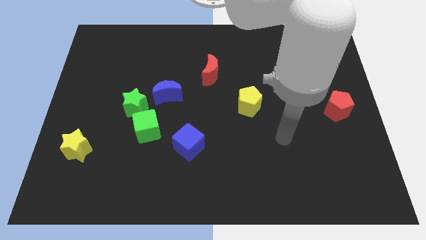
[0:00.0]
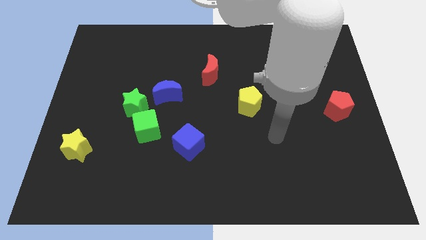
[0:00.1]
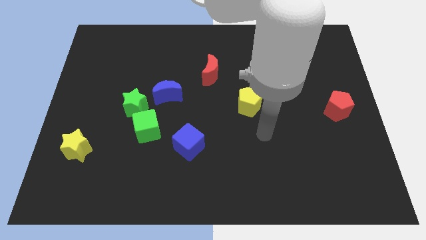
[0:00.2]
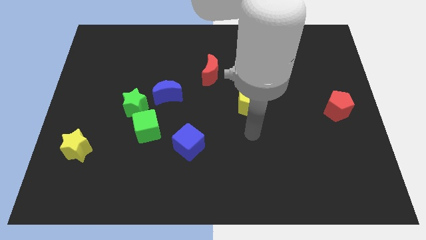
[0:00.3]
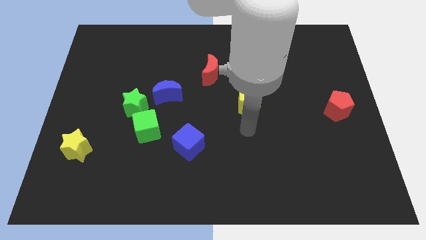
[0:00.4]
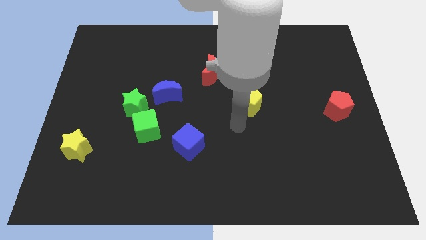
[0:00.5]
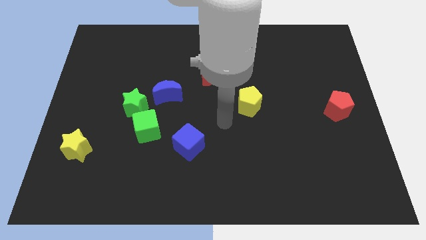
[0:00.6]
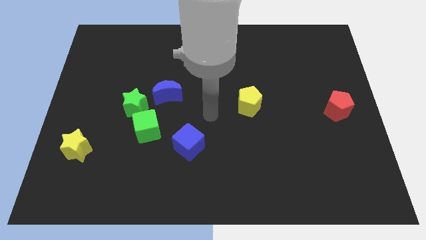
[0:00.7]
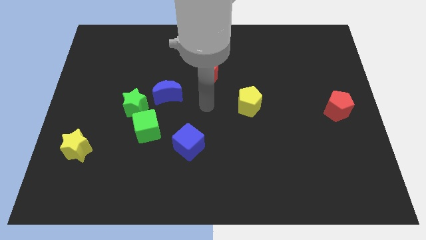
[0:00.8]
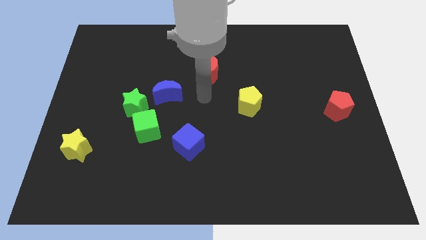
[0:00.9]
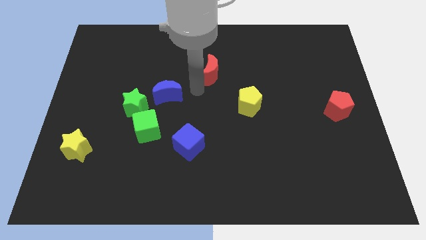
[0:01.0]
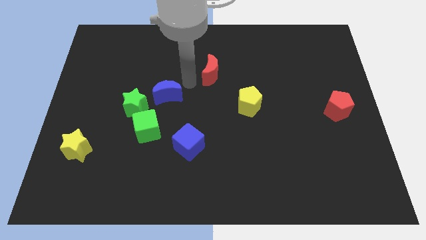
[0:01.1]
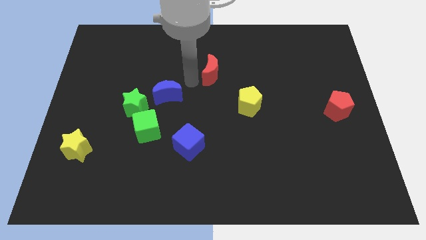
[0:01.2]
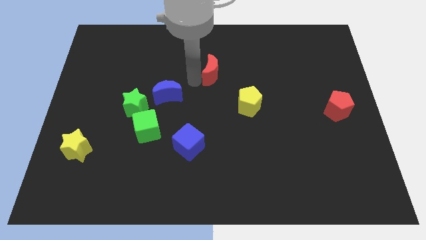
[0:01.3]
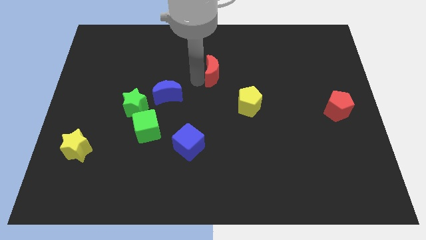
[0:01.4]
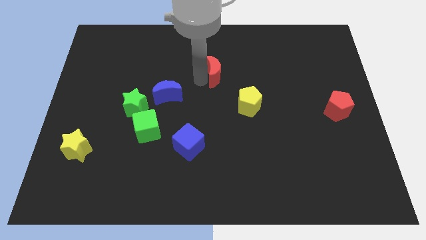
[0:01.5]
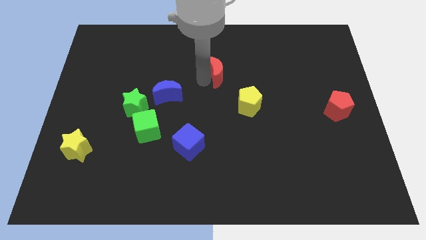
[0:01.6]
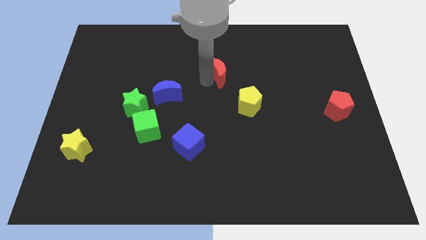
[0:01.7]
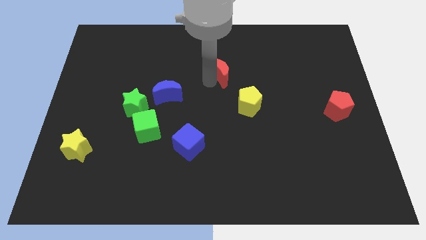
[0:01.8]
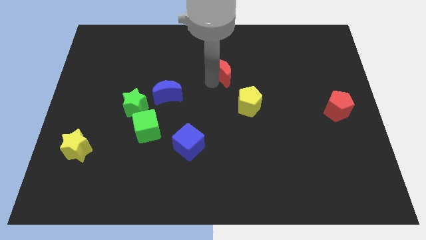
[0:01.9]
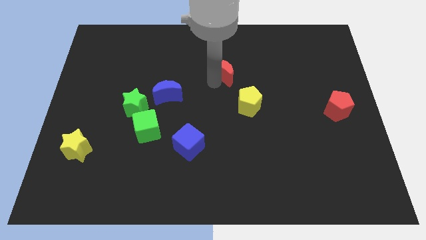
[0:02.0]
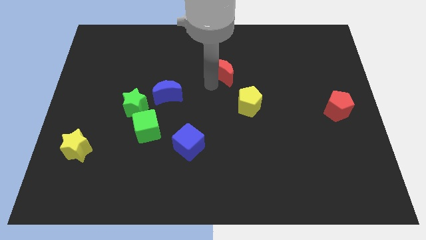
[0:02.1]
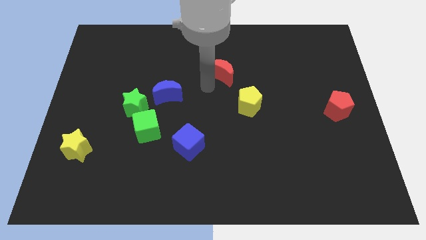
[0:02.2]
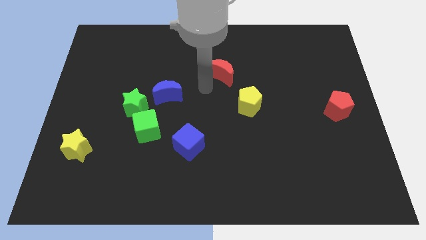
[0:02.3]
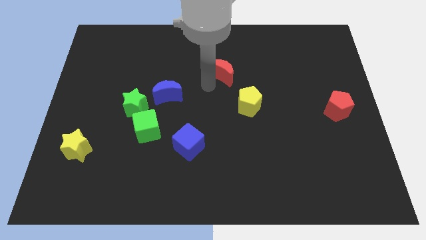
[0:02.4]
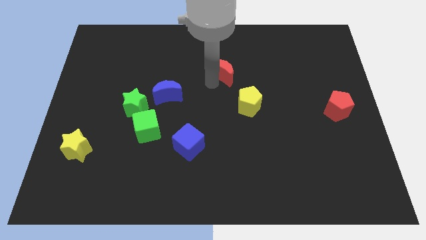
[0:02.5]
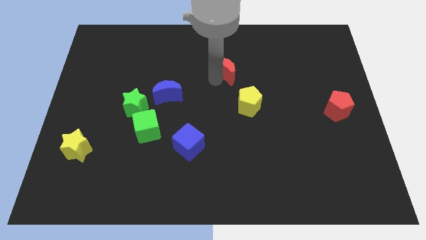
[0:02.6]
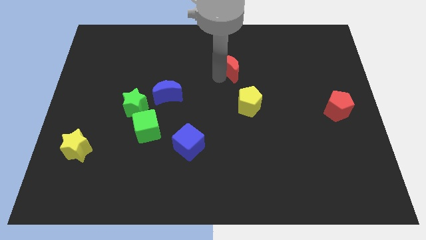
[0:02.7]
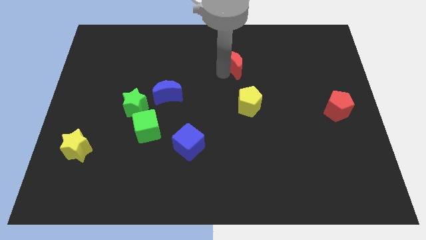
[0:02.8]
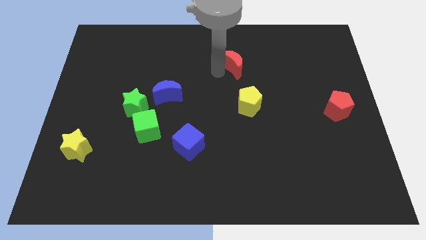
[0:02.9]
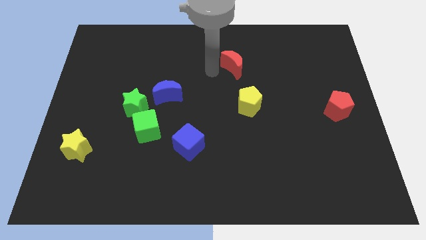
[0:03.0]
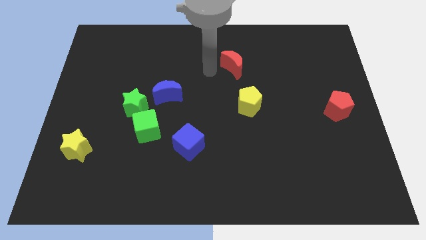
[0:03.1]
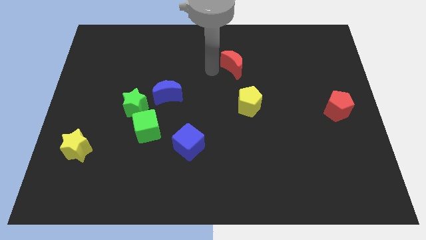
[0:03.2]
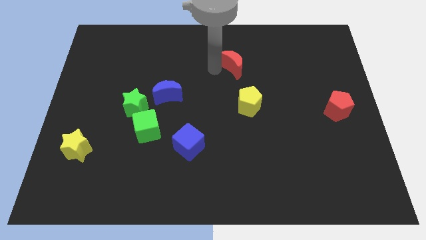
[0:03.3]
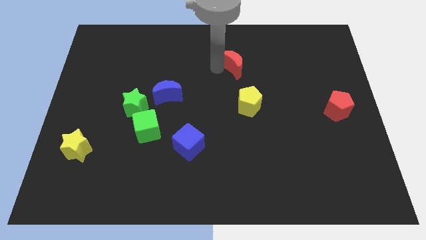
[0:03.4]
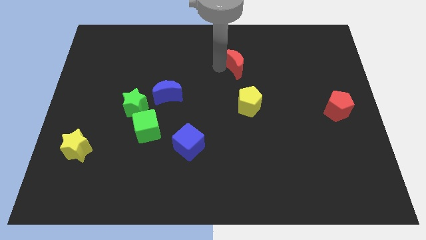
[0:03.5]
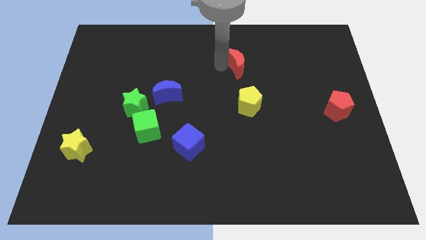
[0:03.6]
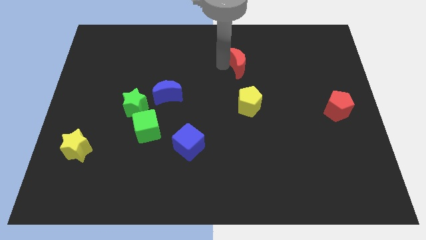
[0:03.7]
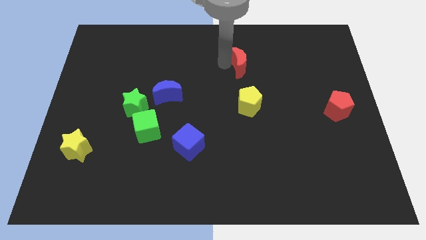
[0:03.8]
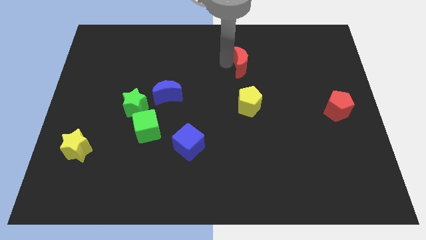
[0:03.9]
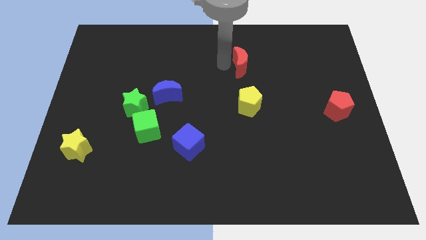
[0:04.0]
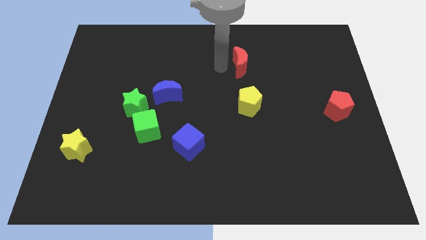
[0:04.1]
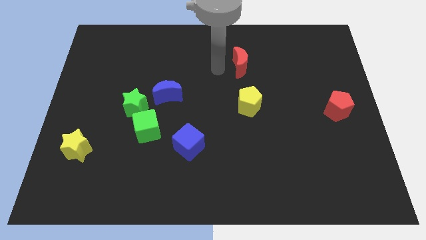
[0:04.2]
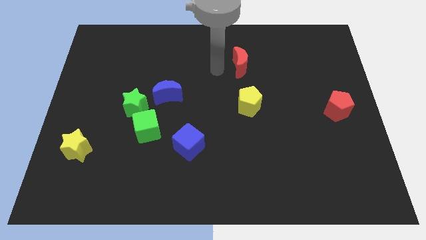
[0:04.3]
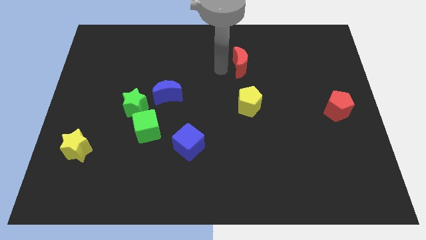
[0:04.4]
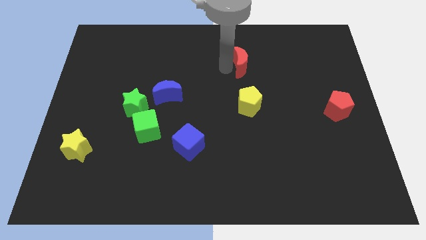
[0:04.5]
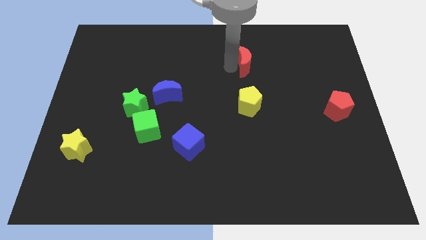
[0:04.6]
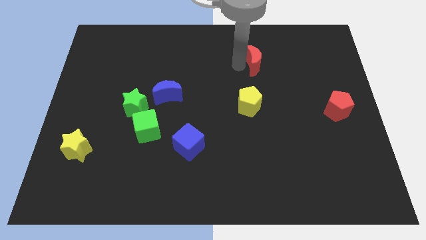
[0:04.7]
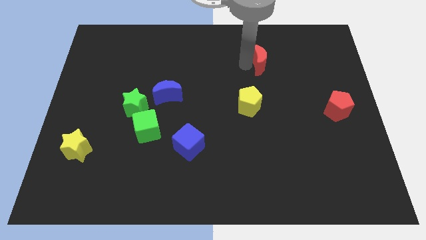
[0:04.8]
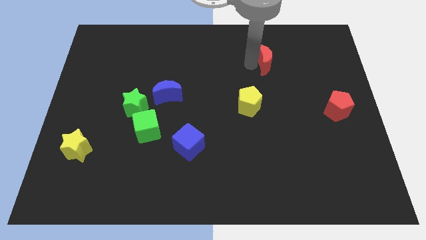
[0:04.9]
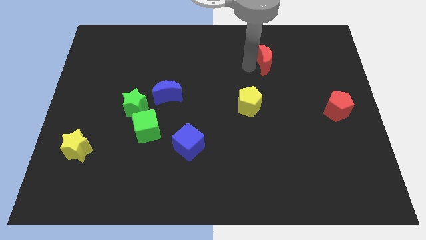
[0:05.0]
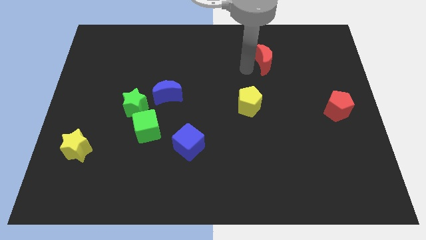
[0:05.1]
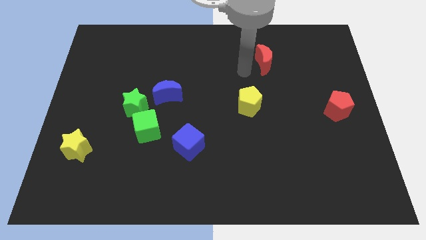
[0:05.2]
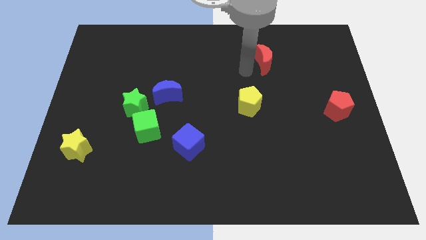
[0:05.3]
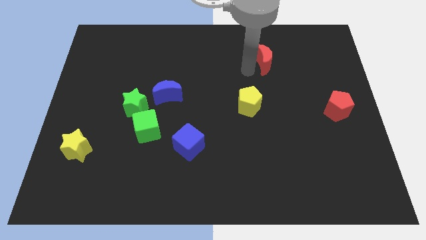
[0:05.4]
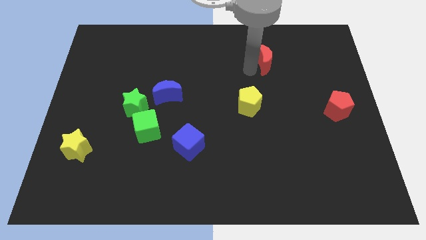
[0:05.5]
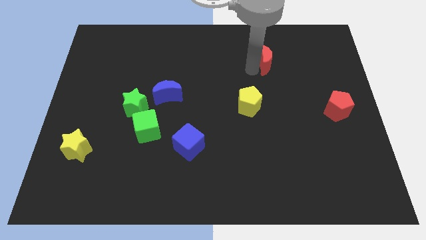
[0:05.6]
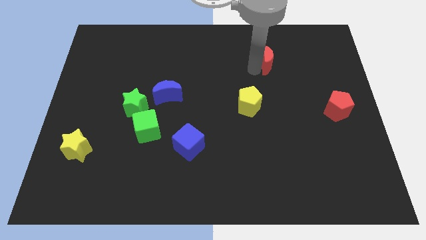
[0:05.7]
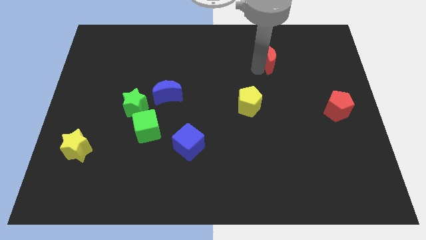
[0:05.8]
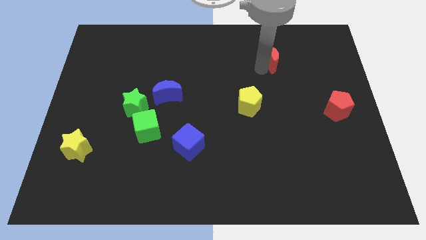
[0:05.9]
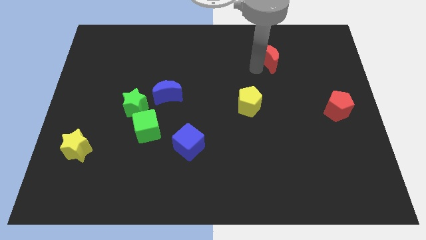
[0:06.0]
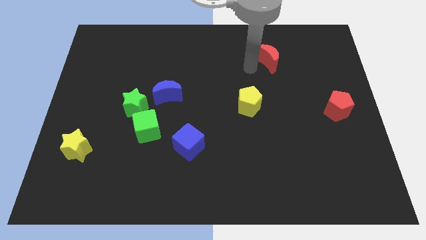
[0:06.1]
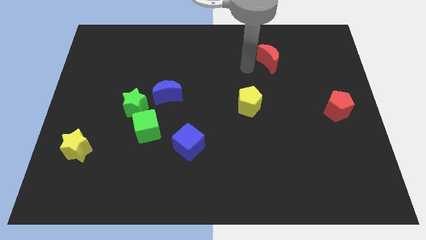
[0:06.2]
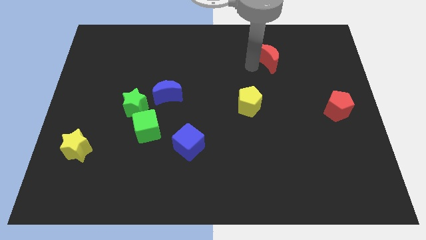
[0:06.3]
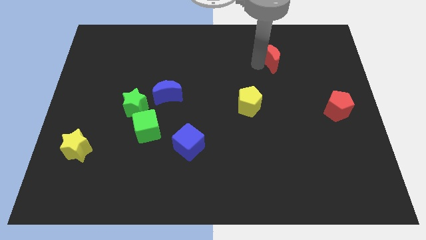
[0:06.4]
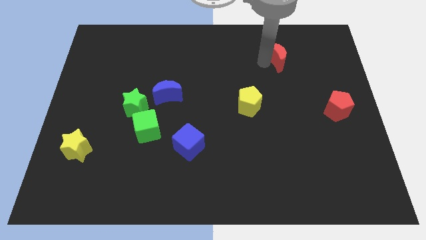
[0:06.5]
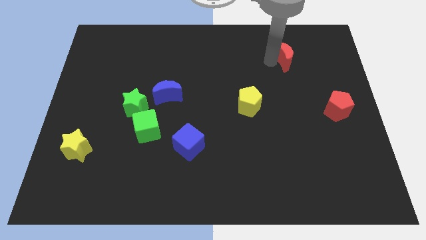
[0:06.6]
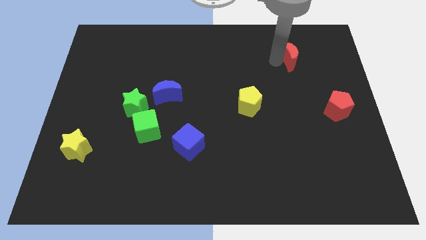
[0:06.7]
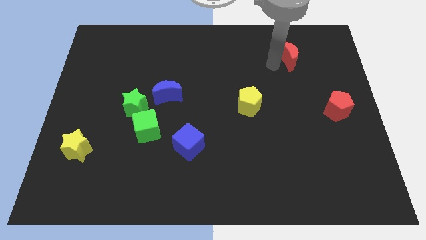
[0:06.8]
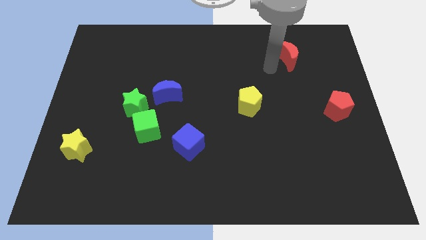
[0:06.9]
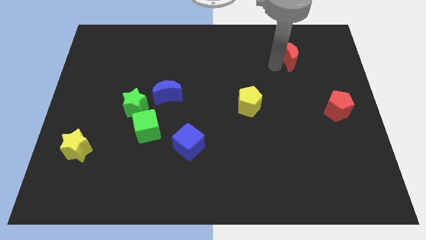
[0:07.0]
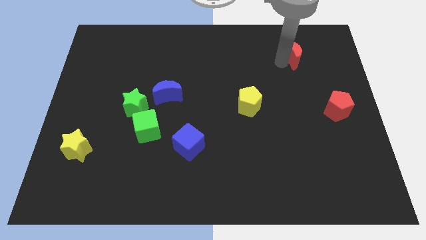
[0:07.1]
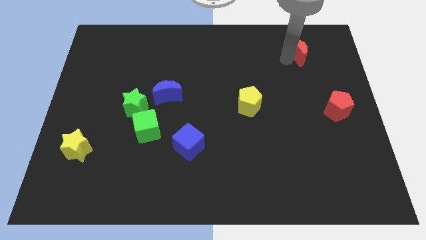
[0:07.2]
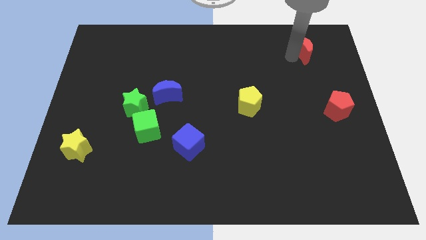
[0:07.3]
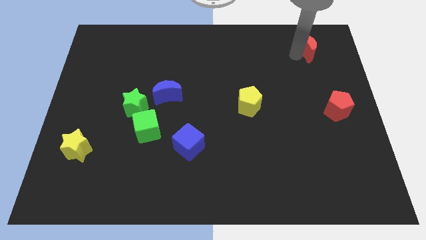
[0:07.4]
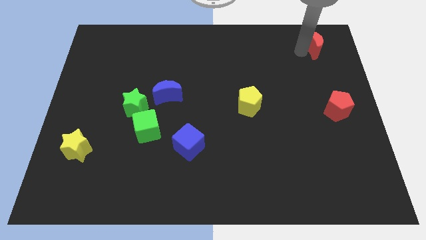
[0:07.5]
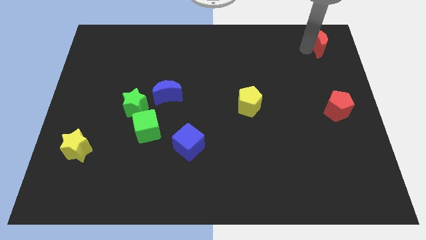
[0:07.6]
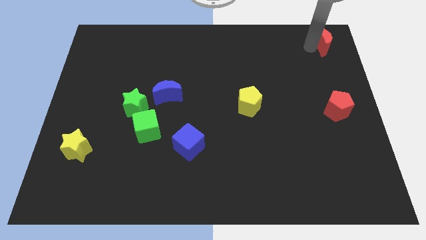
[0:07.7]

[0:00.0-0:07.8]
slide the red moon to the top right of the board
